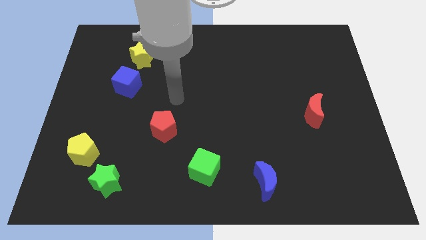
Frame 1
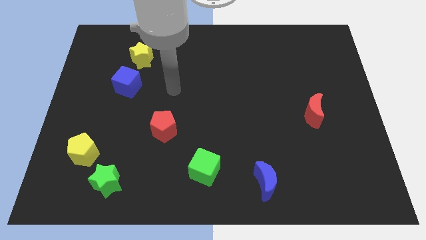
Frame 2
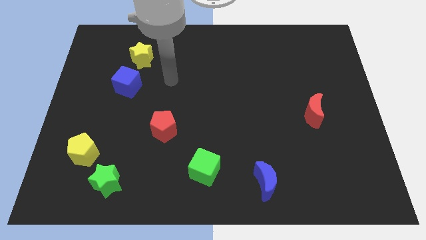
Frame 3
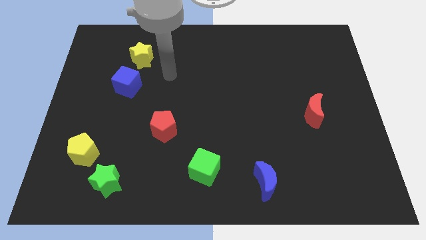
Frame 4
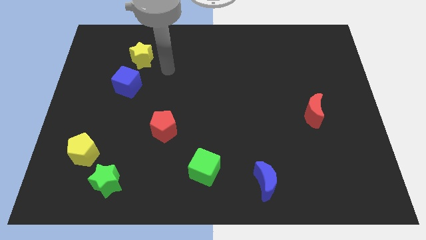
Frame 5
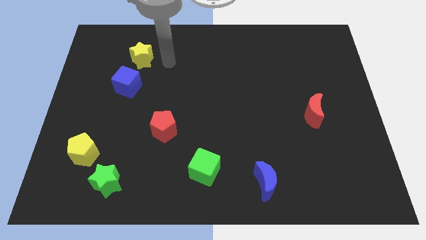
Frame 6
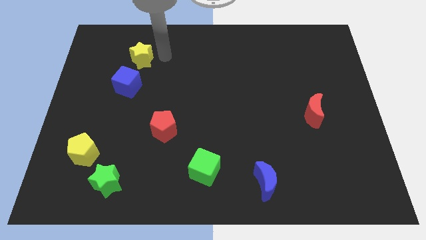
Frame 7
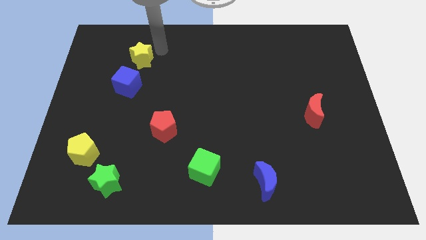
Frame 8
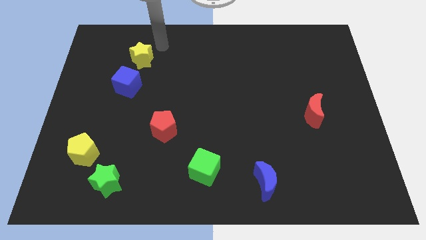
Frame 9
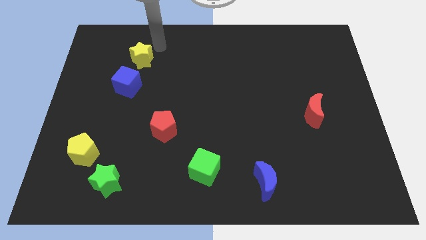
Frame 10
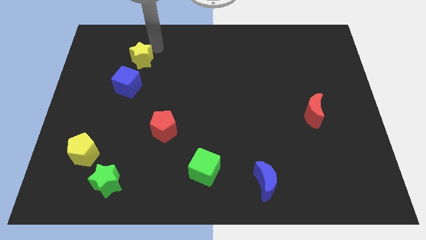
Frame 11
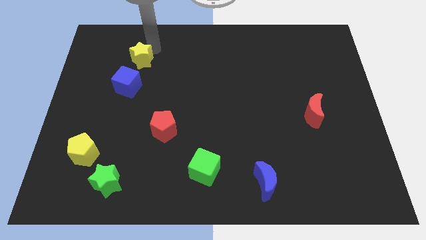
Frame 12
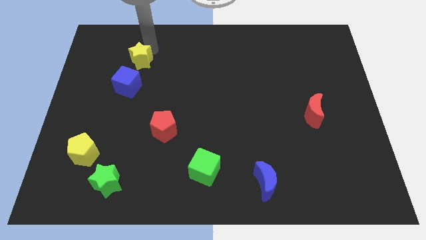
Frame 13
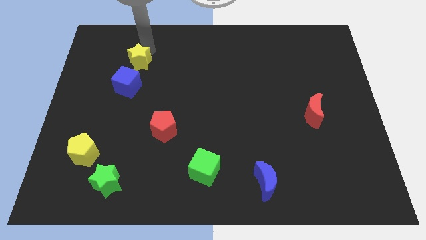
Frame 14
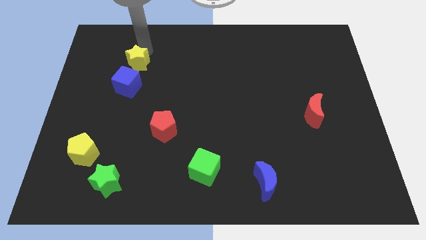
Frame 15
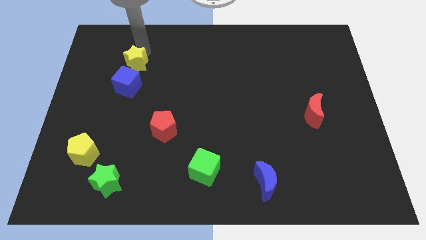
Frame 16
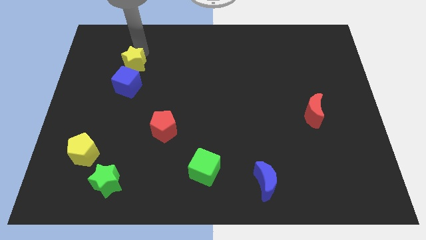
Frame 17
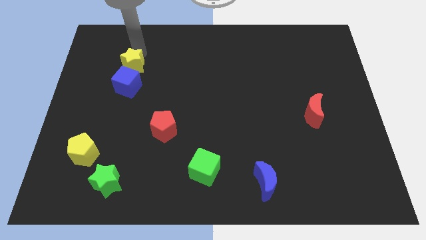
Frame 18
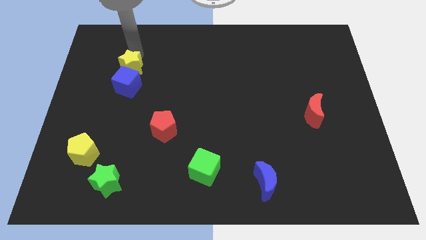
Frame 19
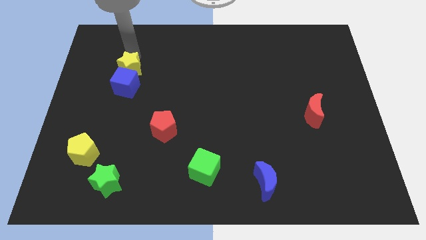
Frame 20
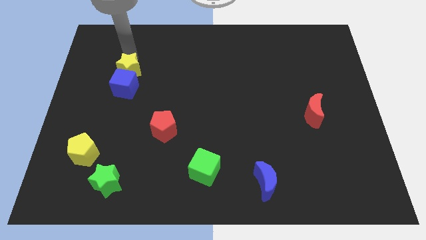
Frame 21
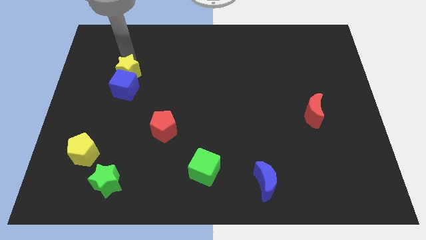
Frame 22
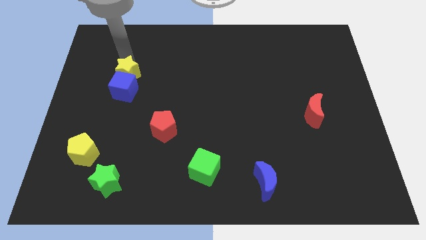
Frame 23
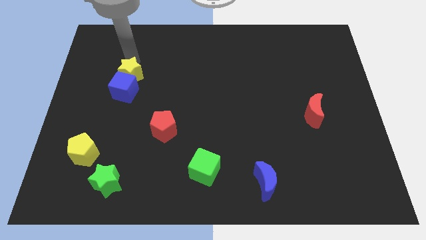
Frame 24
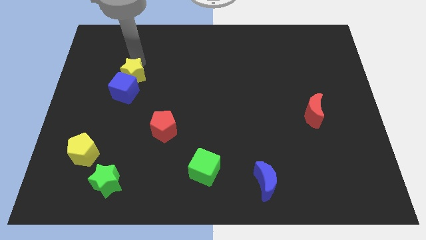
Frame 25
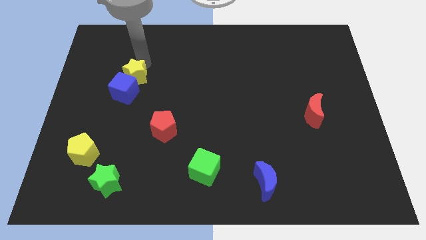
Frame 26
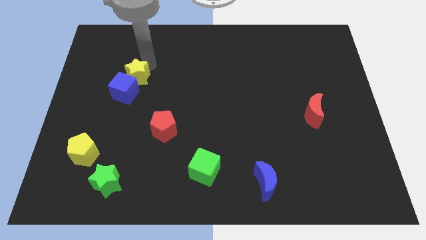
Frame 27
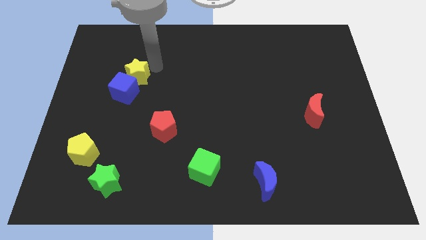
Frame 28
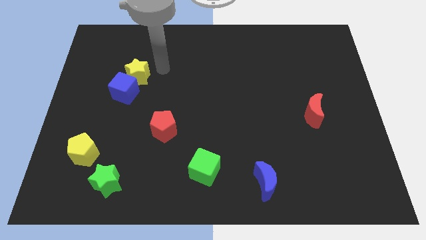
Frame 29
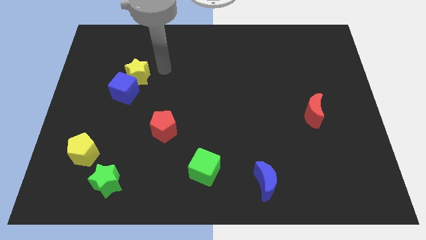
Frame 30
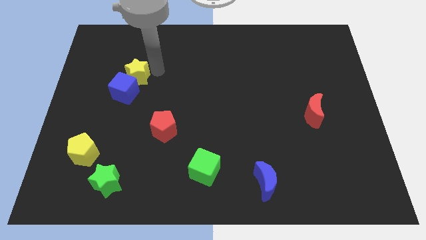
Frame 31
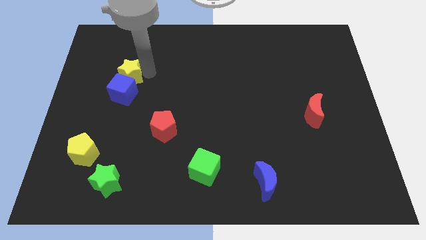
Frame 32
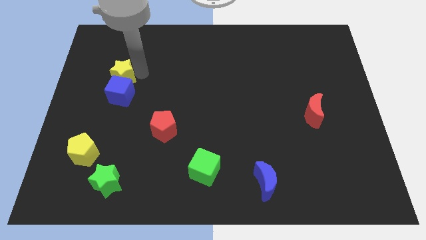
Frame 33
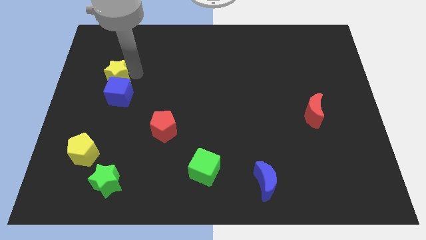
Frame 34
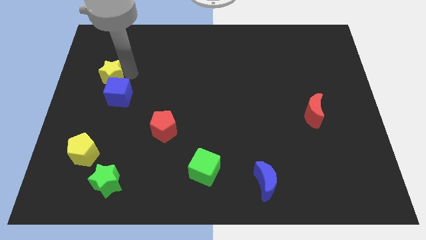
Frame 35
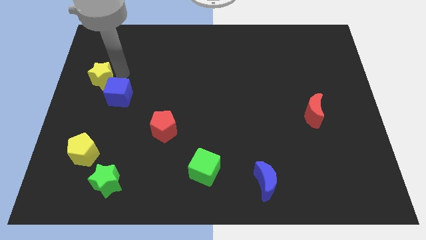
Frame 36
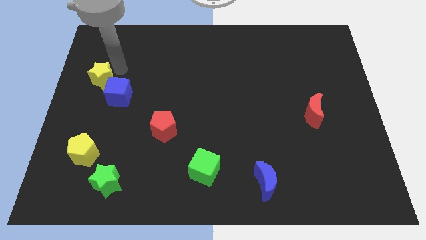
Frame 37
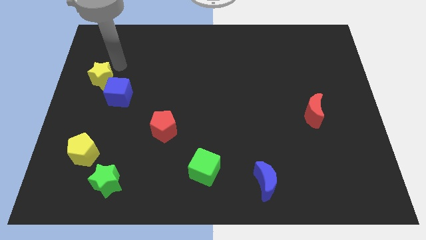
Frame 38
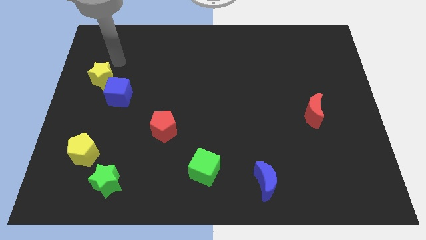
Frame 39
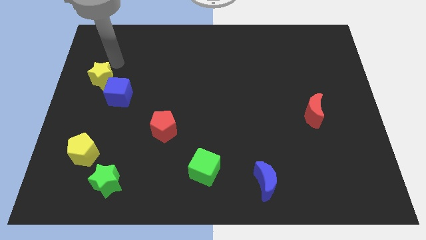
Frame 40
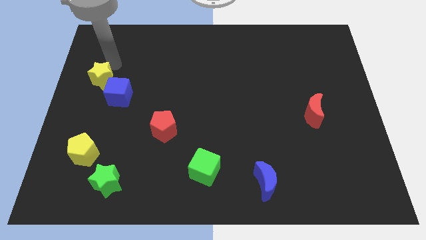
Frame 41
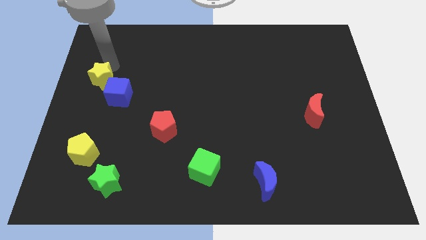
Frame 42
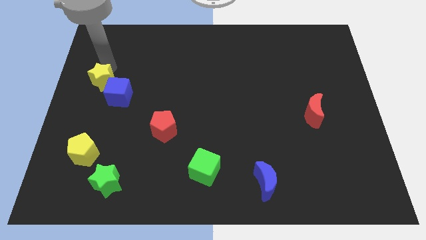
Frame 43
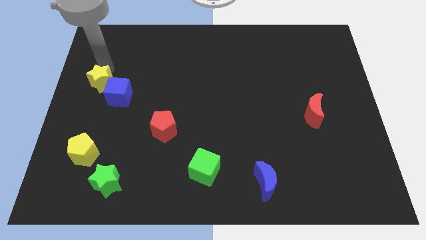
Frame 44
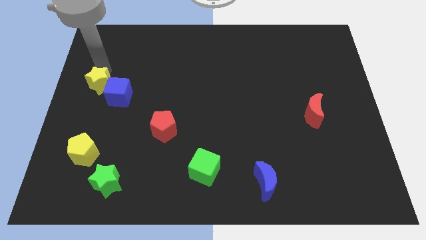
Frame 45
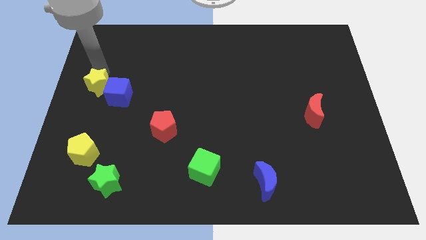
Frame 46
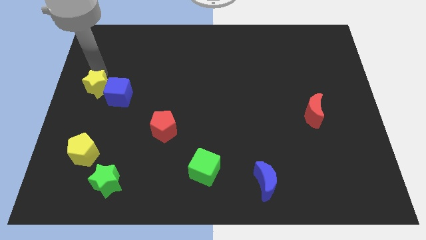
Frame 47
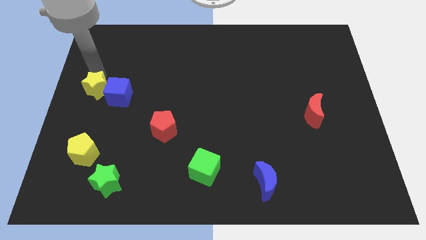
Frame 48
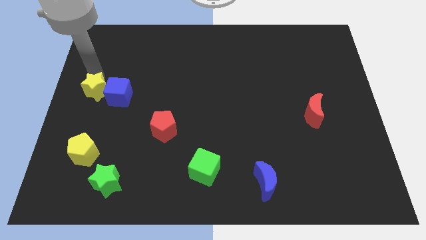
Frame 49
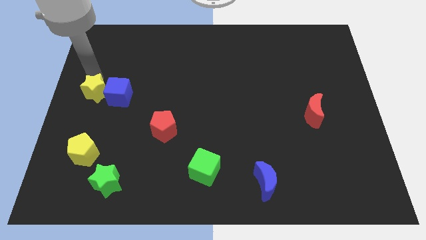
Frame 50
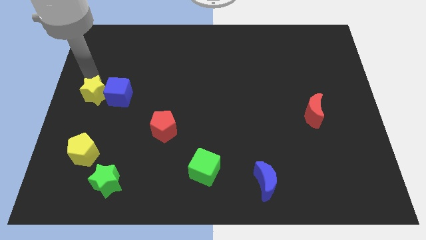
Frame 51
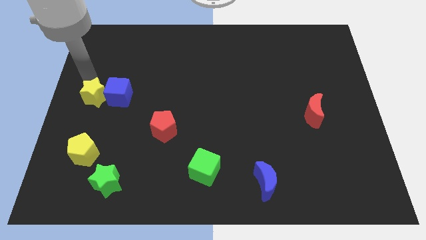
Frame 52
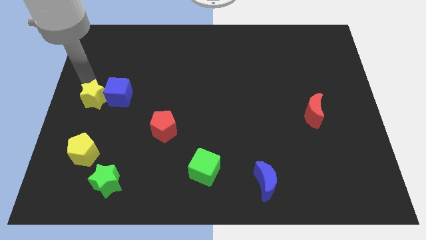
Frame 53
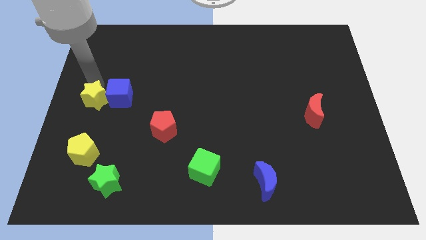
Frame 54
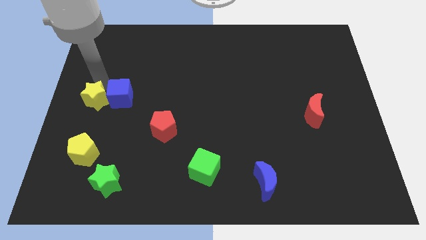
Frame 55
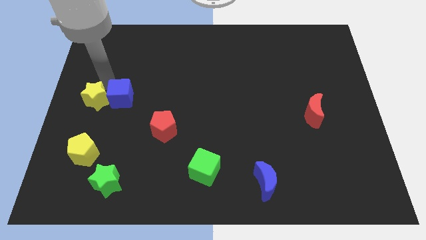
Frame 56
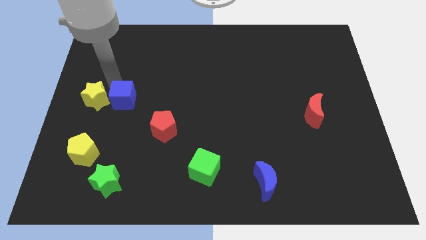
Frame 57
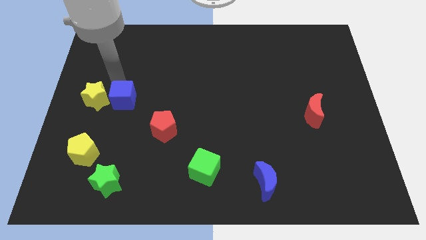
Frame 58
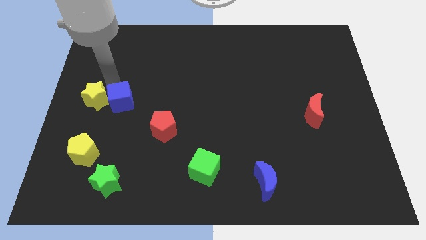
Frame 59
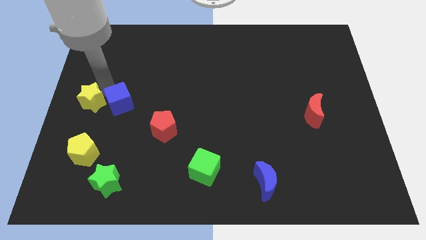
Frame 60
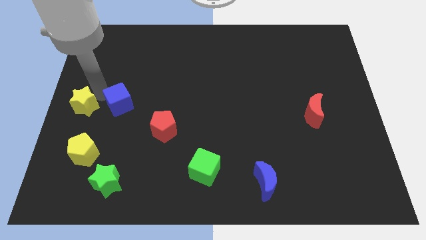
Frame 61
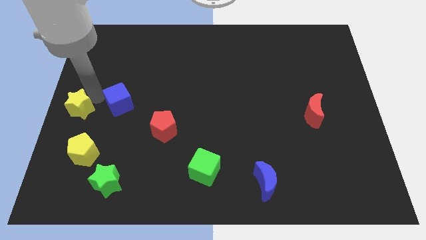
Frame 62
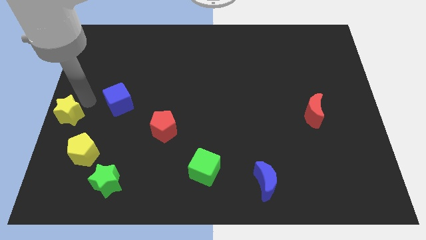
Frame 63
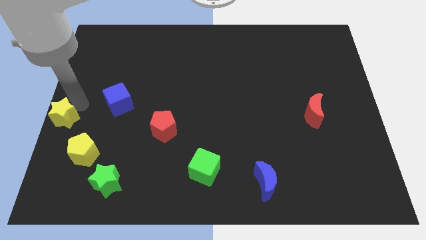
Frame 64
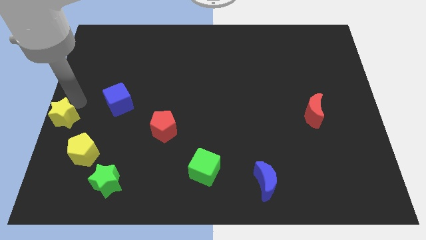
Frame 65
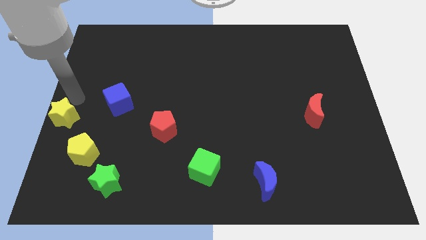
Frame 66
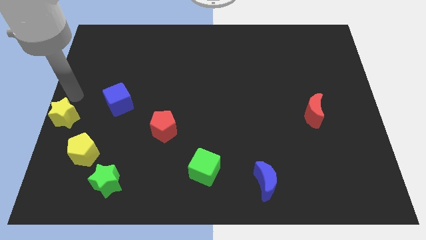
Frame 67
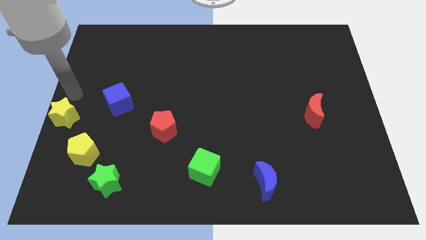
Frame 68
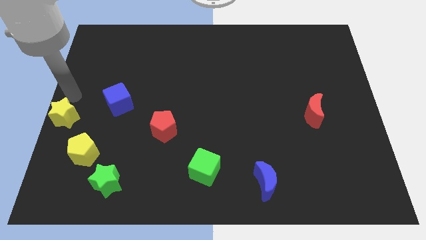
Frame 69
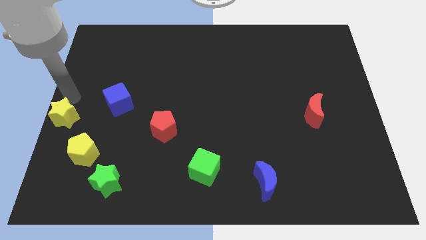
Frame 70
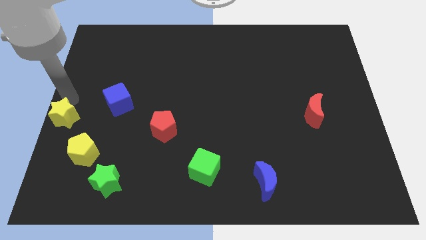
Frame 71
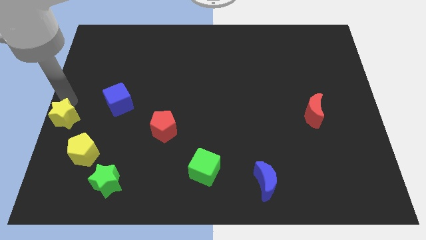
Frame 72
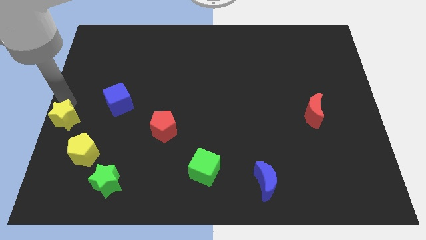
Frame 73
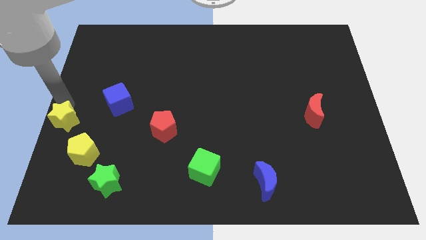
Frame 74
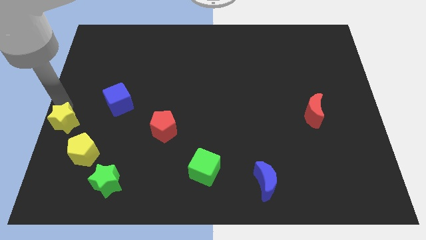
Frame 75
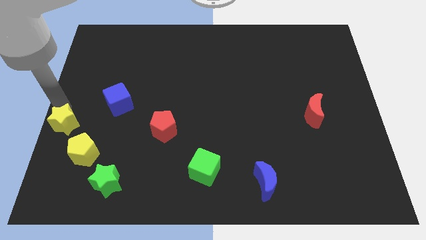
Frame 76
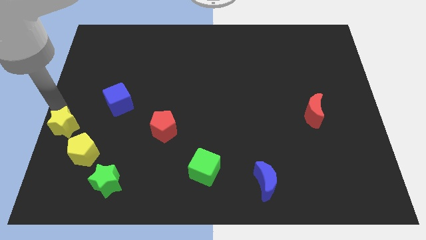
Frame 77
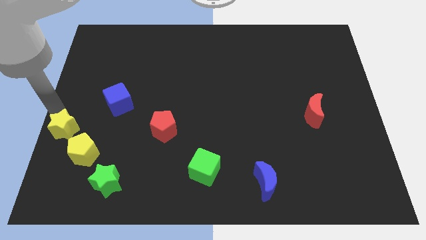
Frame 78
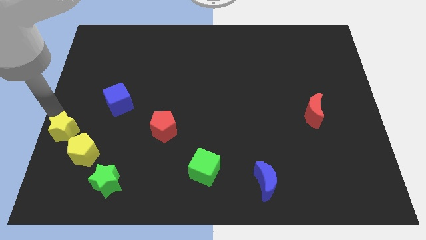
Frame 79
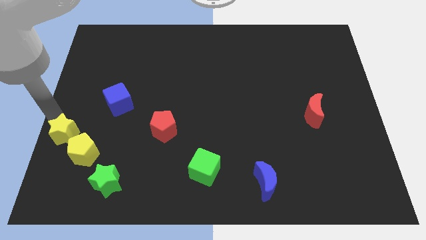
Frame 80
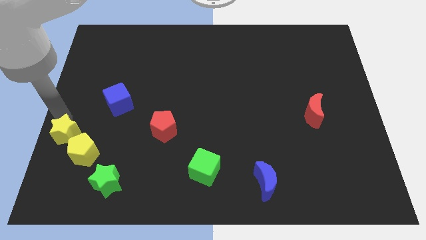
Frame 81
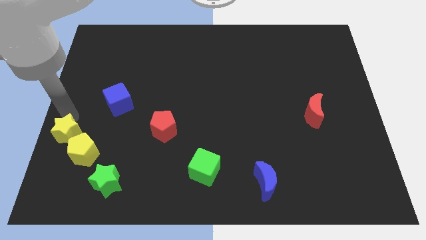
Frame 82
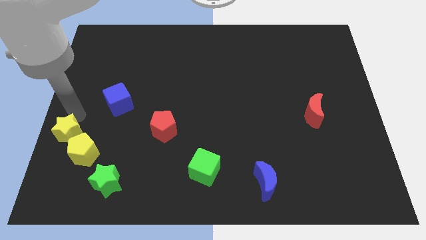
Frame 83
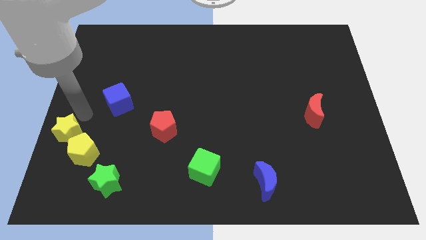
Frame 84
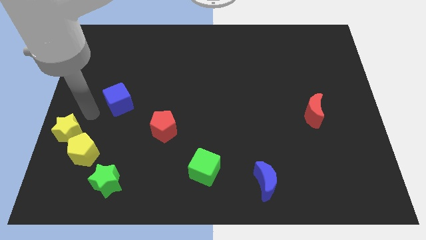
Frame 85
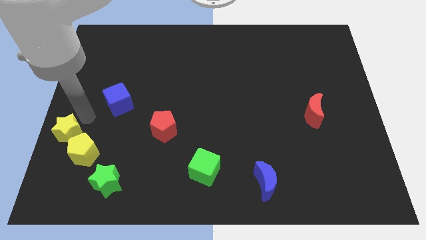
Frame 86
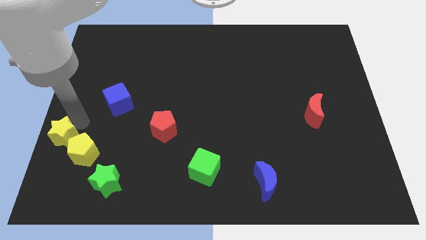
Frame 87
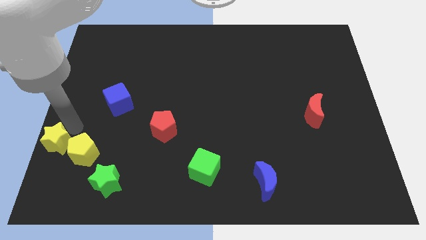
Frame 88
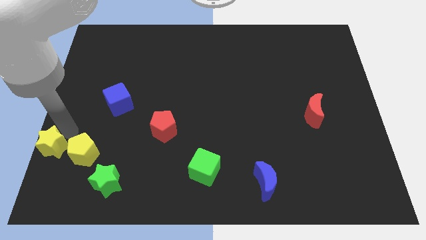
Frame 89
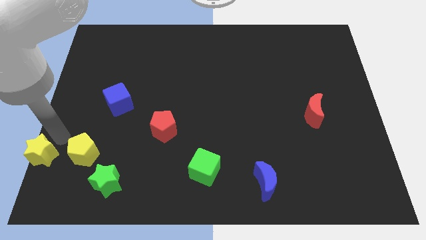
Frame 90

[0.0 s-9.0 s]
slide the yellow star to the bottom left of the board
